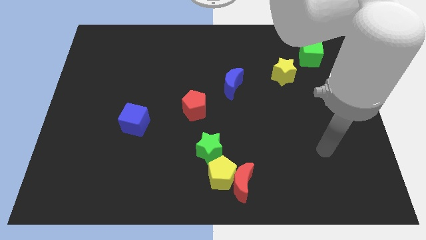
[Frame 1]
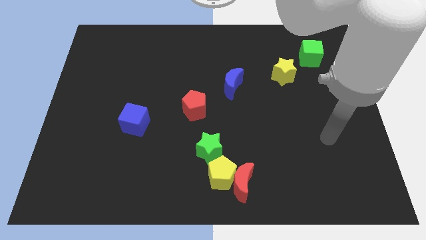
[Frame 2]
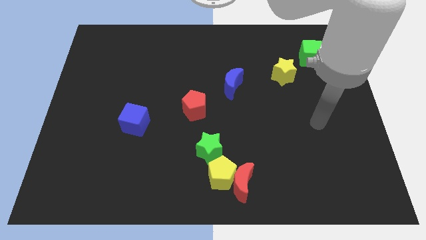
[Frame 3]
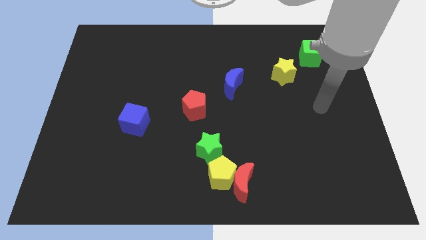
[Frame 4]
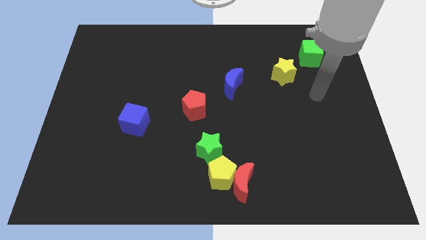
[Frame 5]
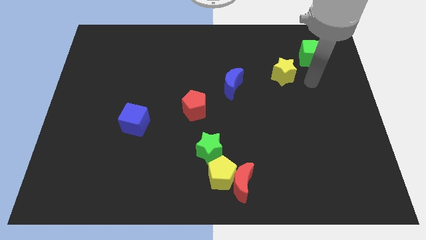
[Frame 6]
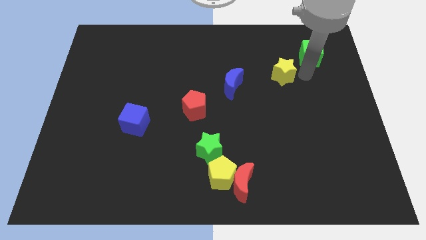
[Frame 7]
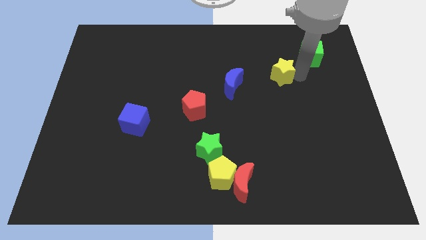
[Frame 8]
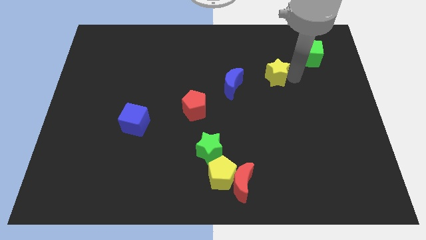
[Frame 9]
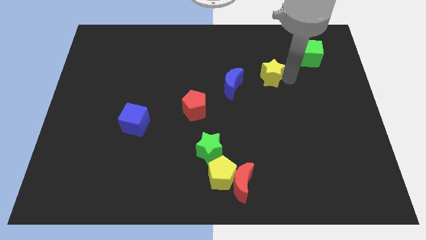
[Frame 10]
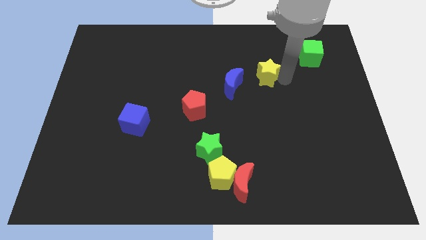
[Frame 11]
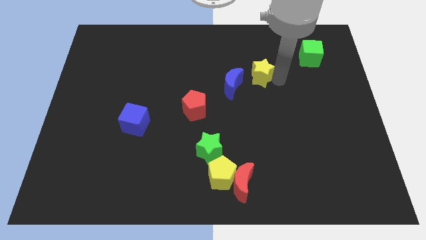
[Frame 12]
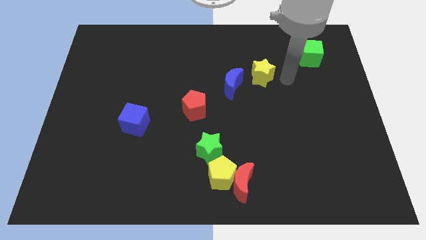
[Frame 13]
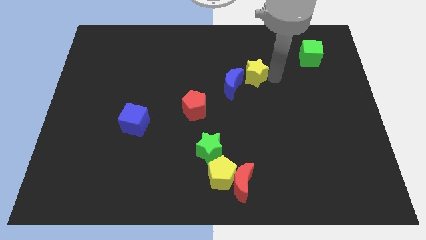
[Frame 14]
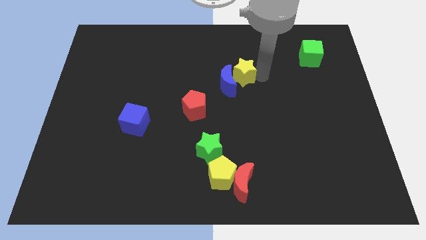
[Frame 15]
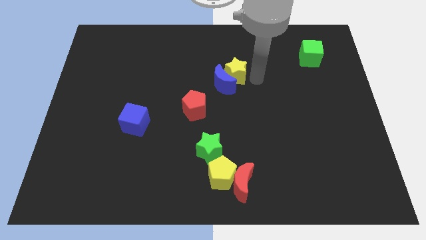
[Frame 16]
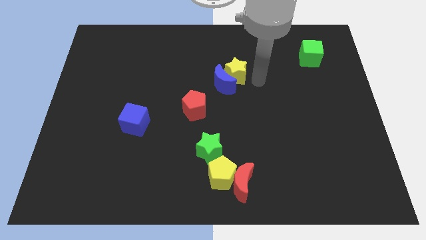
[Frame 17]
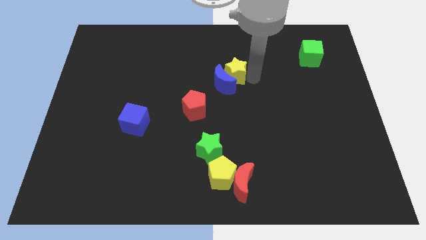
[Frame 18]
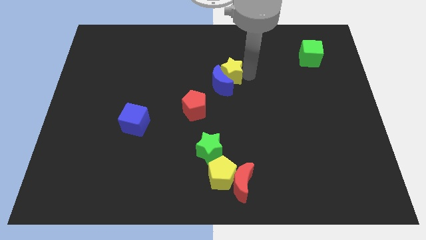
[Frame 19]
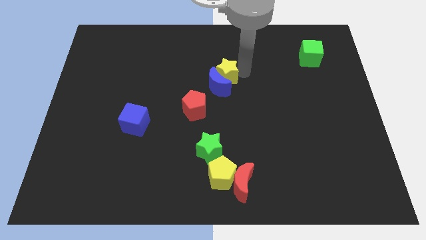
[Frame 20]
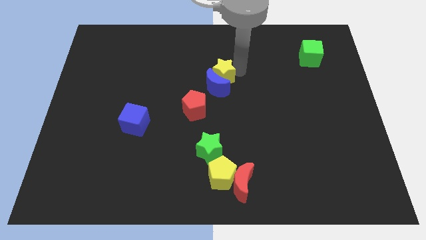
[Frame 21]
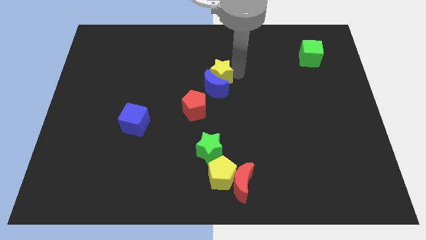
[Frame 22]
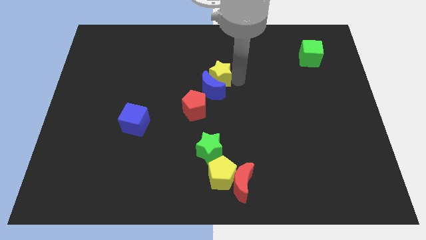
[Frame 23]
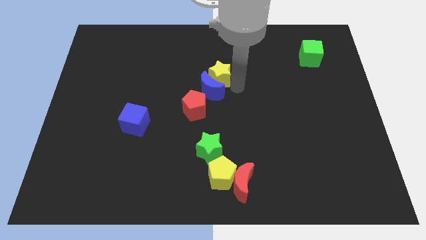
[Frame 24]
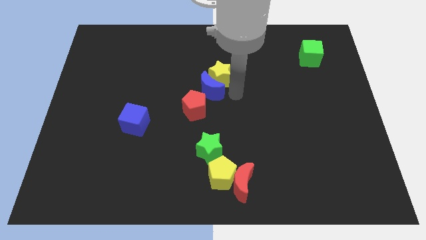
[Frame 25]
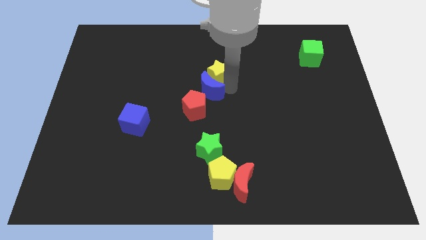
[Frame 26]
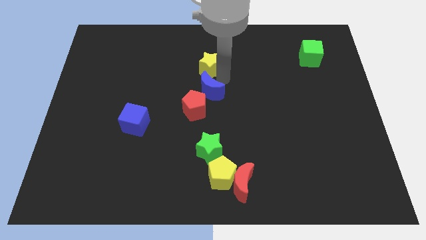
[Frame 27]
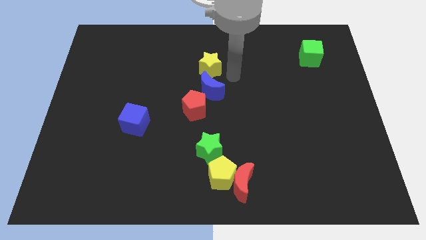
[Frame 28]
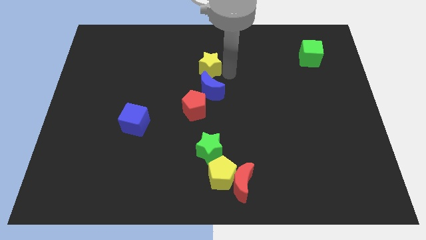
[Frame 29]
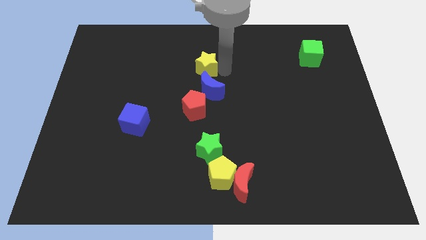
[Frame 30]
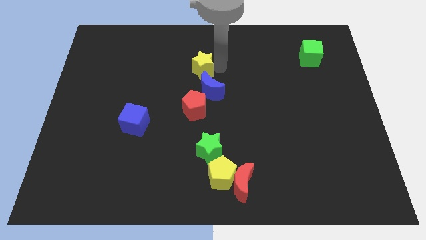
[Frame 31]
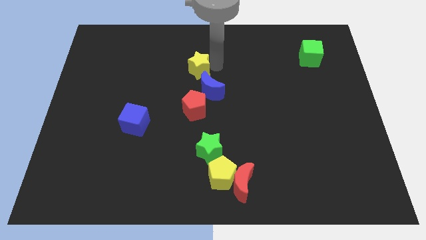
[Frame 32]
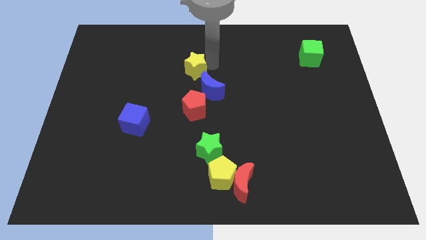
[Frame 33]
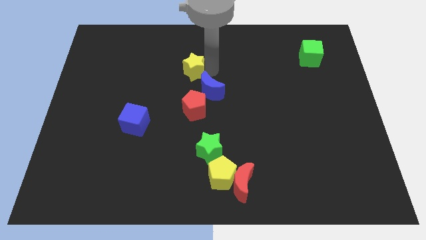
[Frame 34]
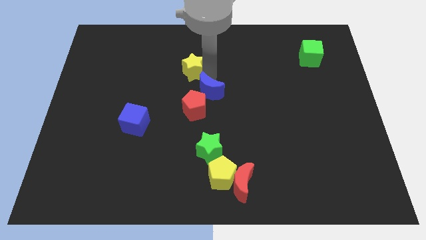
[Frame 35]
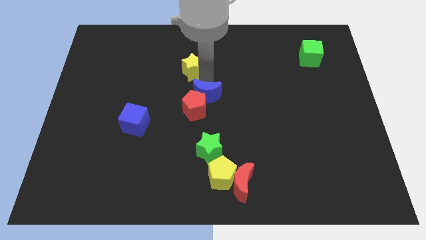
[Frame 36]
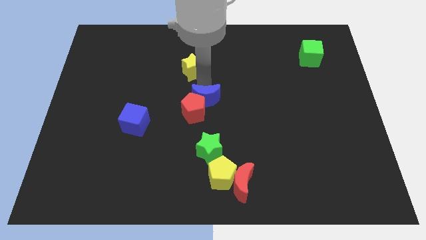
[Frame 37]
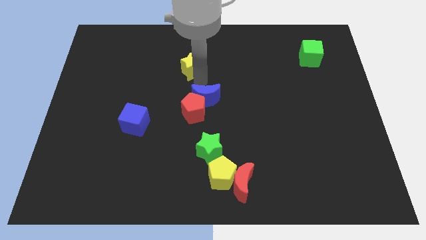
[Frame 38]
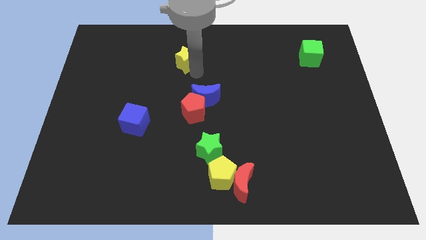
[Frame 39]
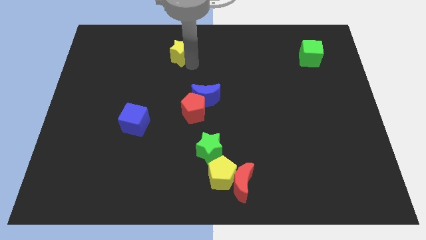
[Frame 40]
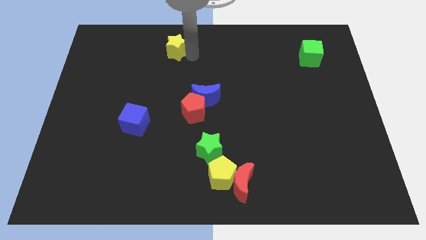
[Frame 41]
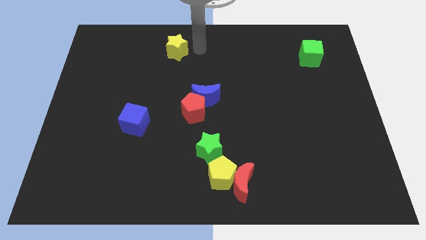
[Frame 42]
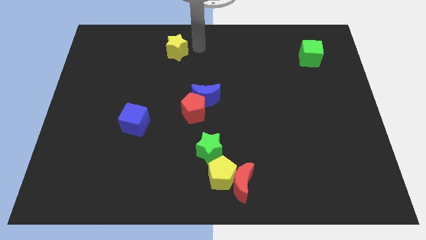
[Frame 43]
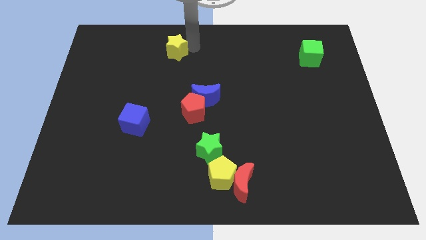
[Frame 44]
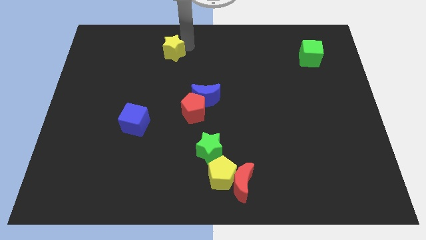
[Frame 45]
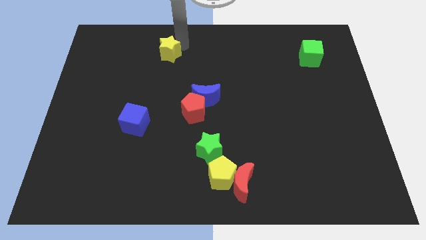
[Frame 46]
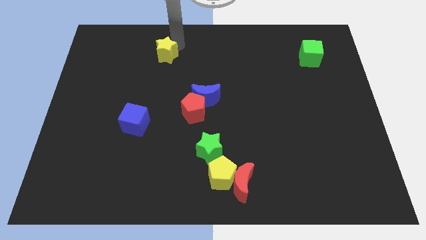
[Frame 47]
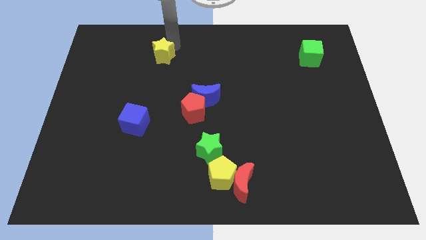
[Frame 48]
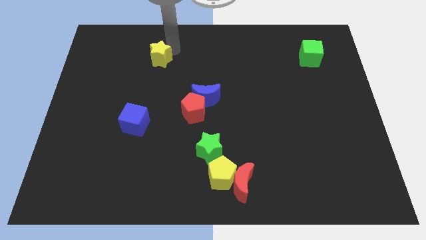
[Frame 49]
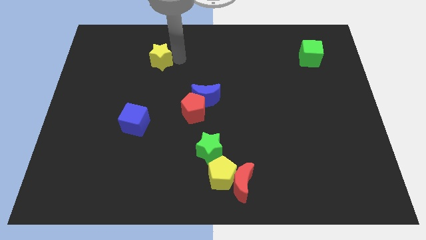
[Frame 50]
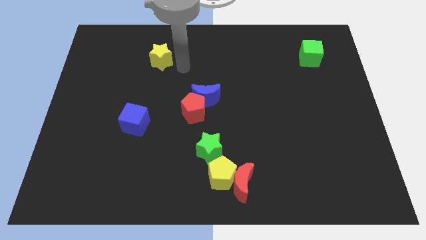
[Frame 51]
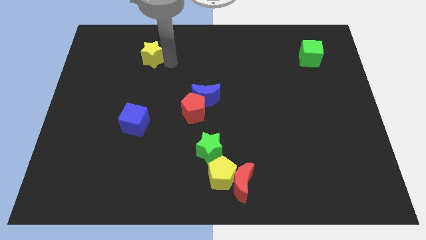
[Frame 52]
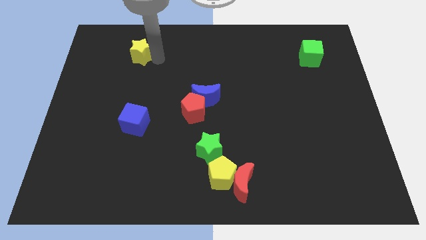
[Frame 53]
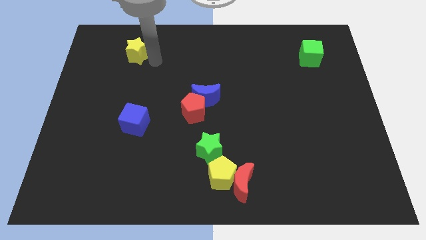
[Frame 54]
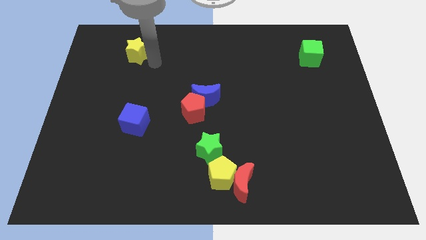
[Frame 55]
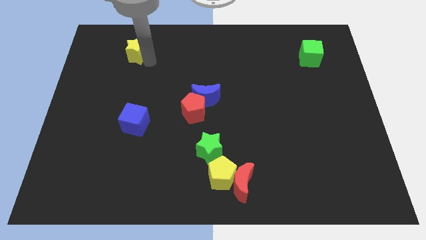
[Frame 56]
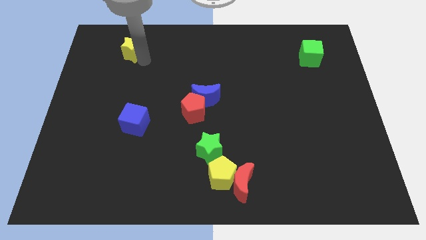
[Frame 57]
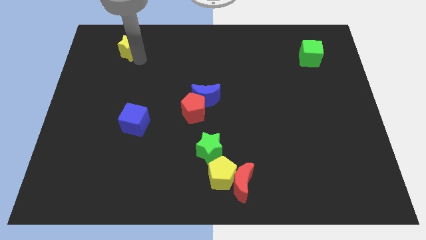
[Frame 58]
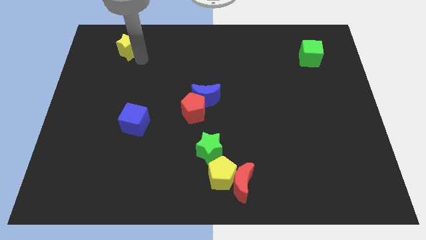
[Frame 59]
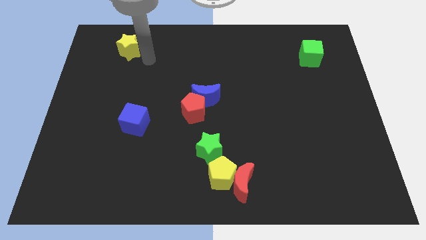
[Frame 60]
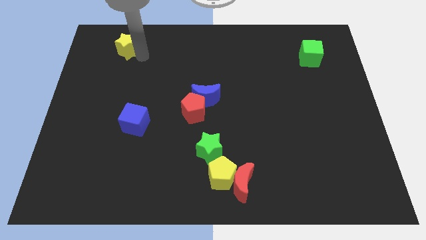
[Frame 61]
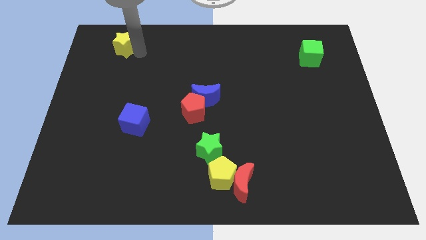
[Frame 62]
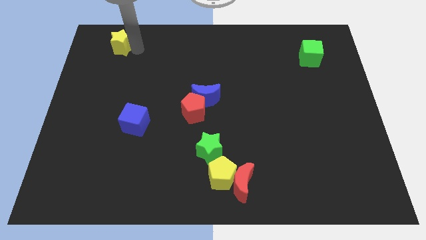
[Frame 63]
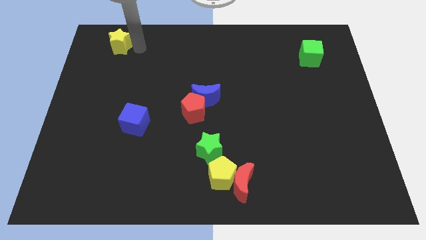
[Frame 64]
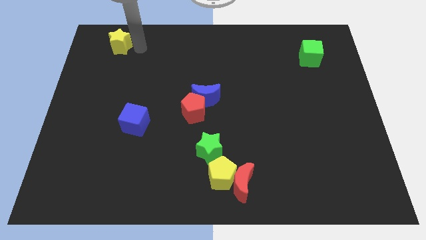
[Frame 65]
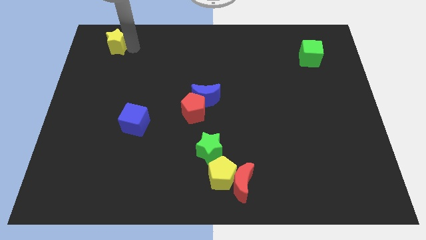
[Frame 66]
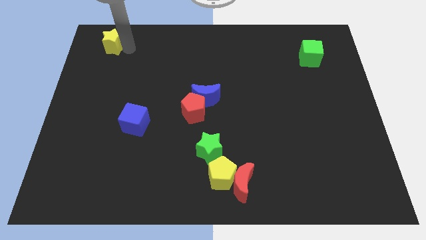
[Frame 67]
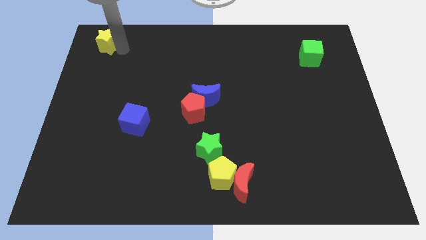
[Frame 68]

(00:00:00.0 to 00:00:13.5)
put the yellow star to the top left
